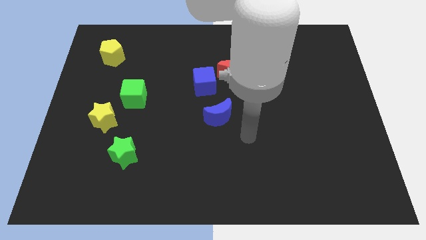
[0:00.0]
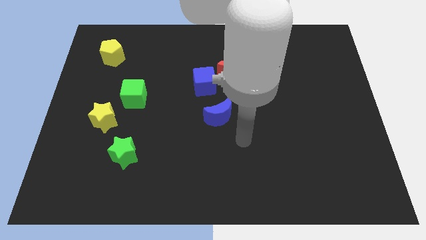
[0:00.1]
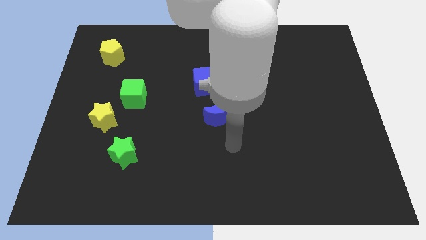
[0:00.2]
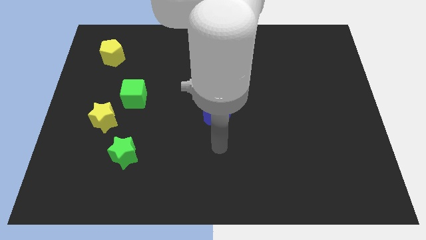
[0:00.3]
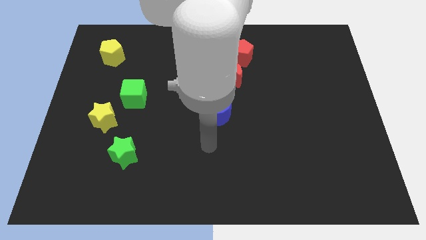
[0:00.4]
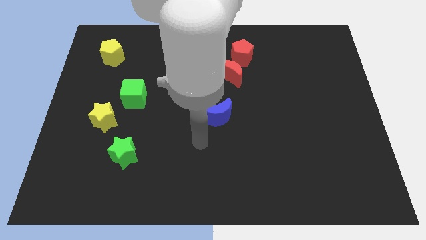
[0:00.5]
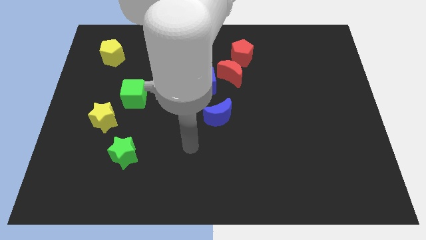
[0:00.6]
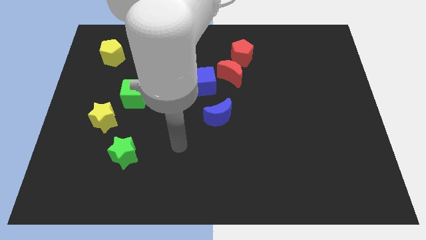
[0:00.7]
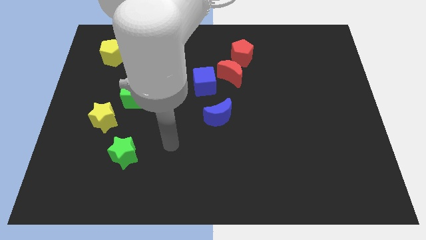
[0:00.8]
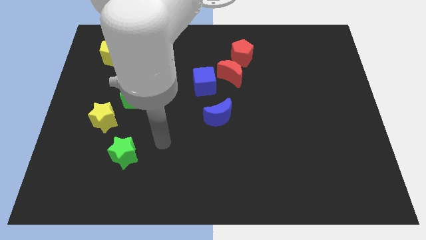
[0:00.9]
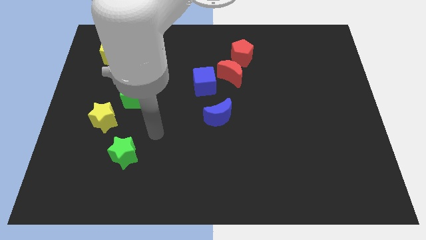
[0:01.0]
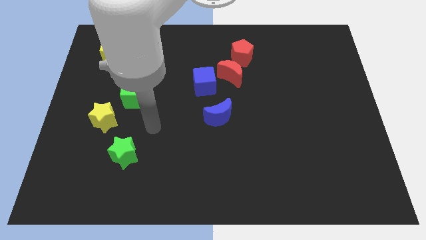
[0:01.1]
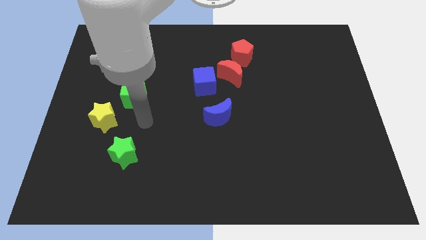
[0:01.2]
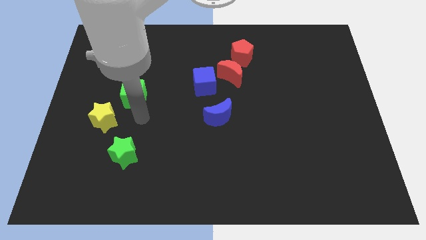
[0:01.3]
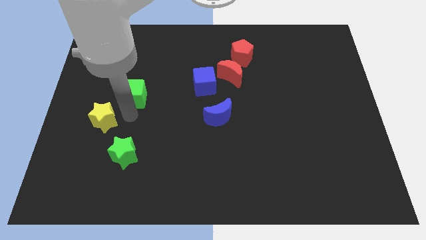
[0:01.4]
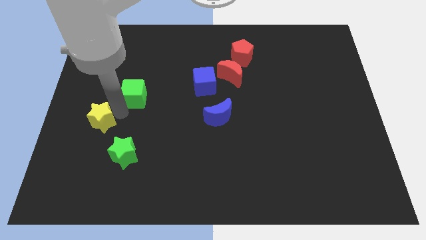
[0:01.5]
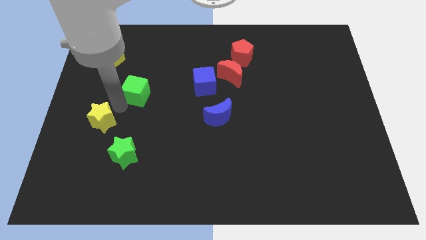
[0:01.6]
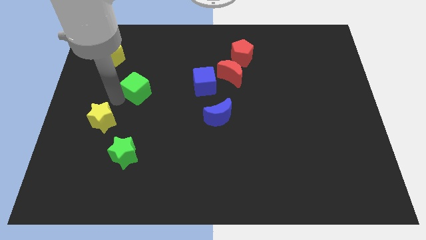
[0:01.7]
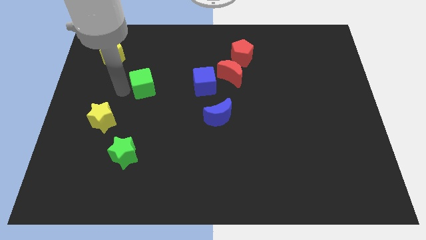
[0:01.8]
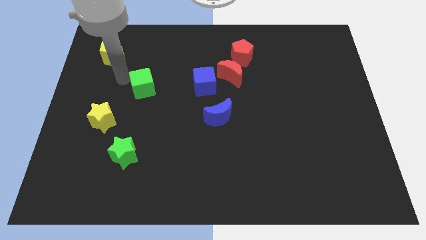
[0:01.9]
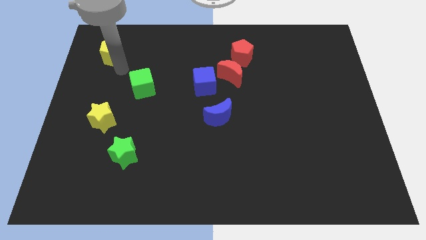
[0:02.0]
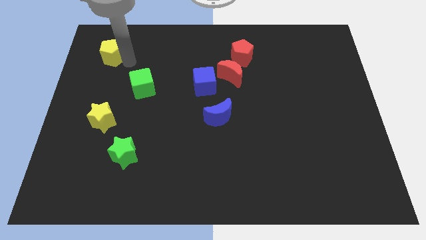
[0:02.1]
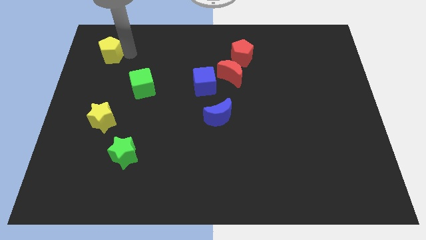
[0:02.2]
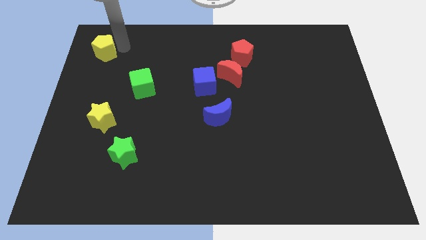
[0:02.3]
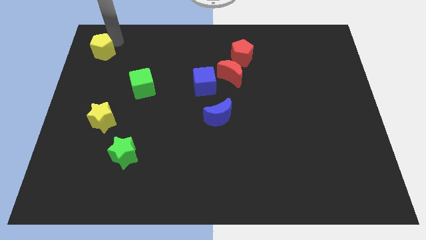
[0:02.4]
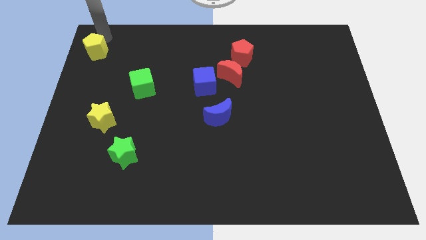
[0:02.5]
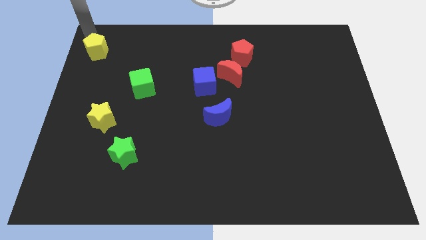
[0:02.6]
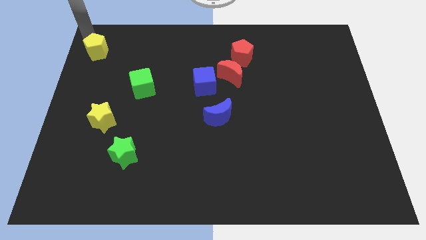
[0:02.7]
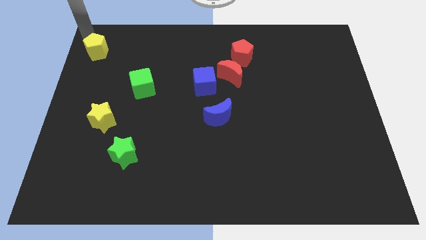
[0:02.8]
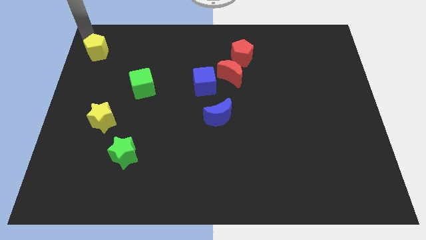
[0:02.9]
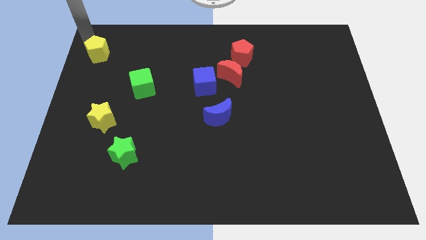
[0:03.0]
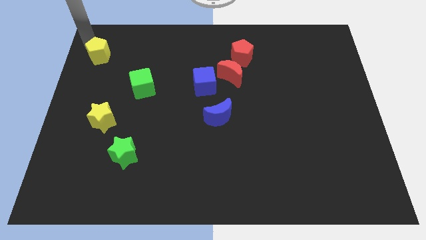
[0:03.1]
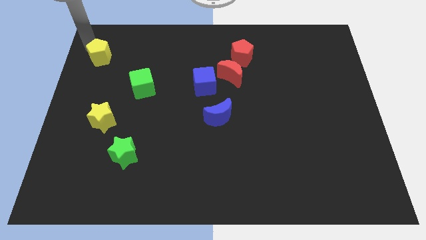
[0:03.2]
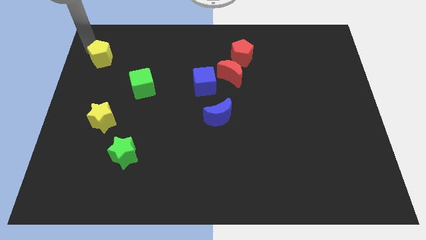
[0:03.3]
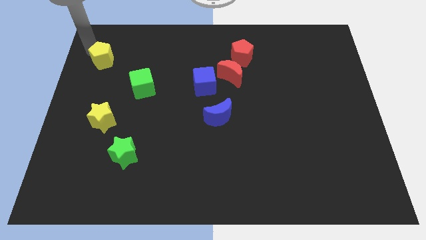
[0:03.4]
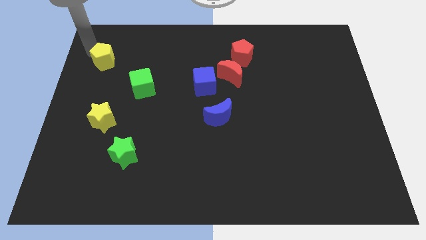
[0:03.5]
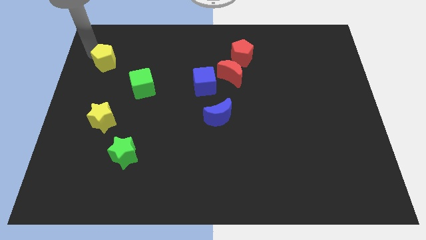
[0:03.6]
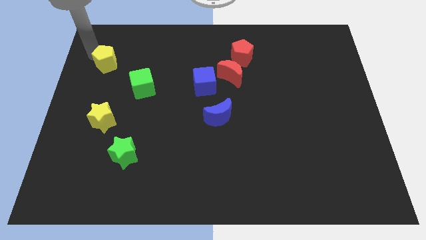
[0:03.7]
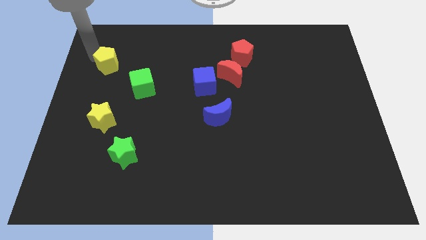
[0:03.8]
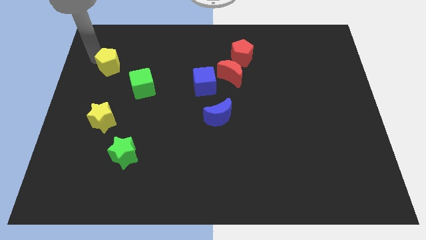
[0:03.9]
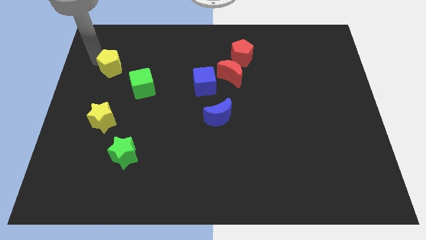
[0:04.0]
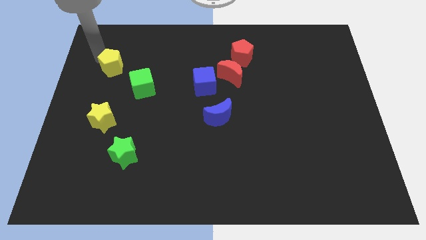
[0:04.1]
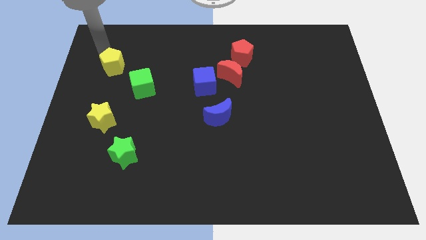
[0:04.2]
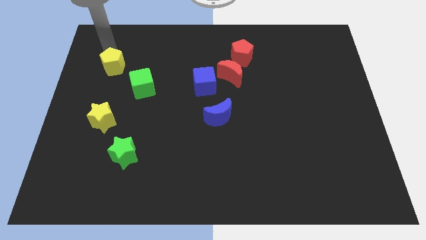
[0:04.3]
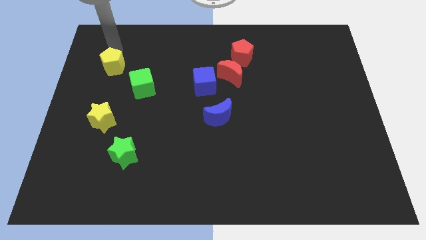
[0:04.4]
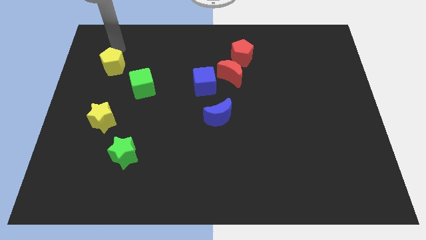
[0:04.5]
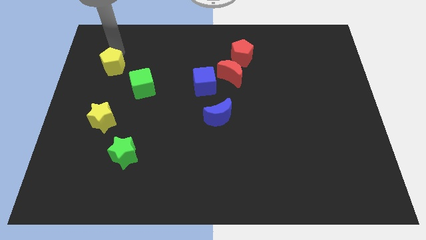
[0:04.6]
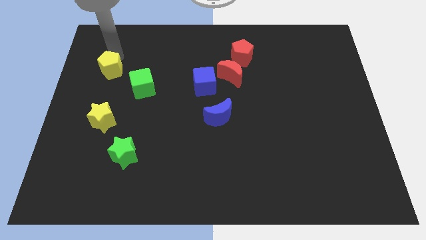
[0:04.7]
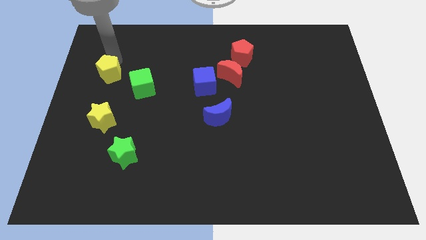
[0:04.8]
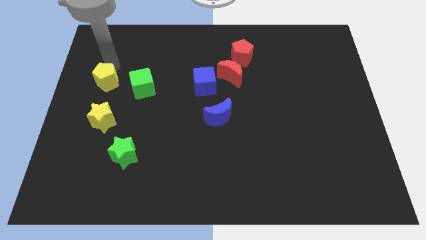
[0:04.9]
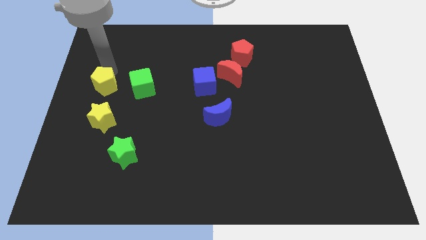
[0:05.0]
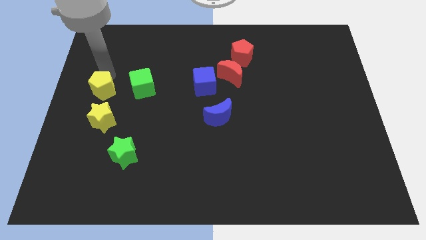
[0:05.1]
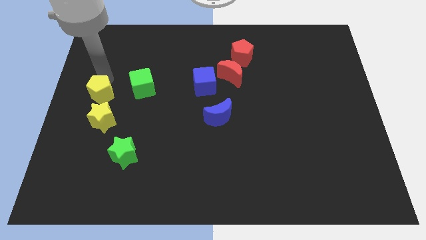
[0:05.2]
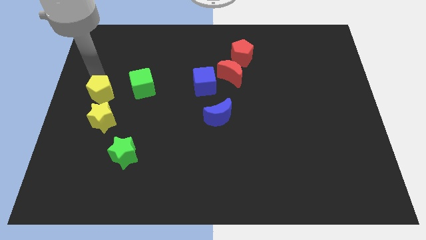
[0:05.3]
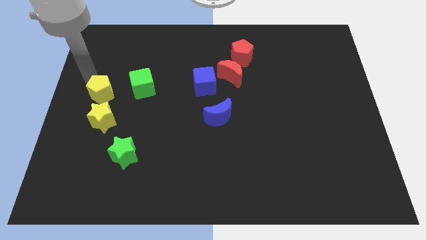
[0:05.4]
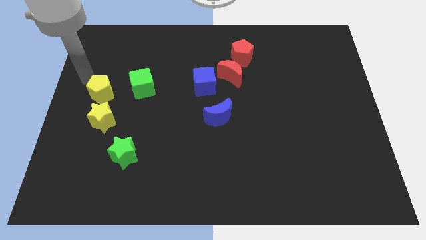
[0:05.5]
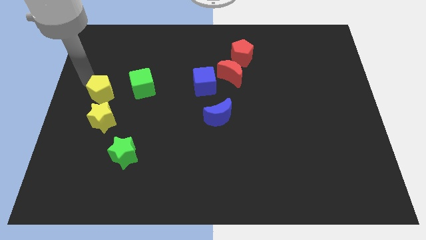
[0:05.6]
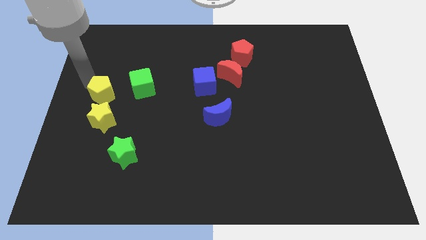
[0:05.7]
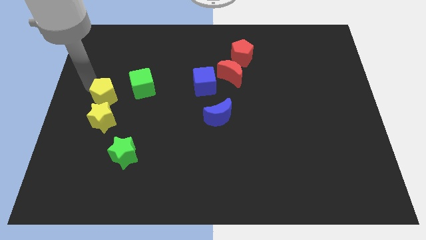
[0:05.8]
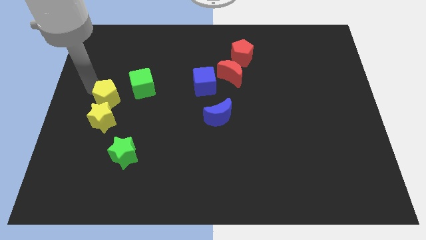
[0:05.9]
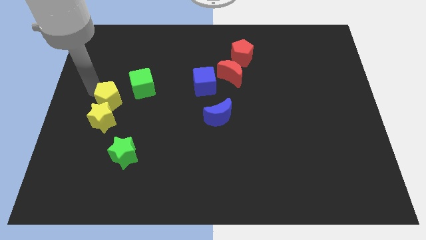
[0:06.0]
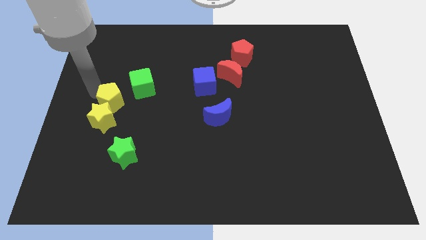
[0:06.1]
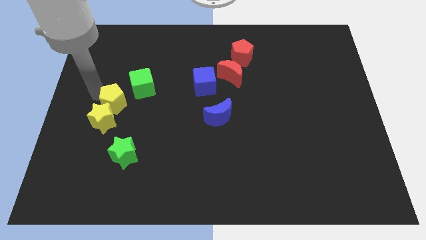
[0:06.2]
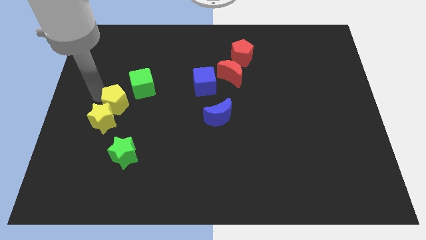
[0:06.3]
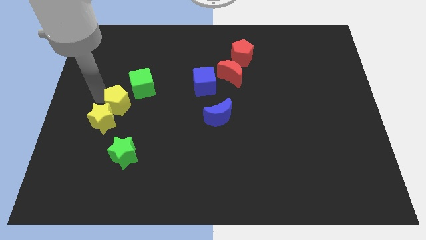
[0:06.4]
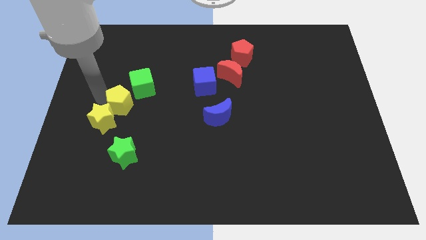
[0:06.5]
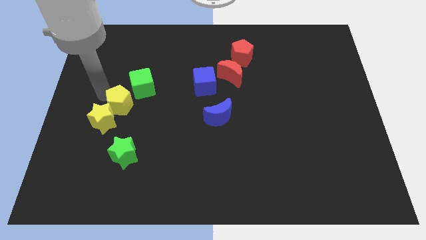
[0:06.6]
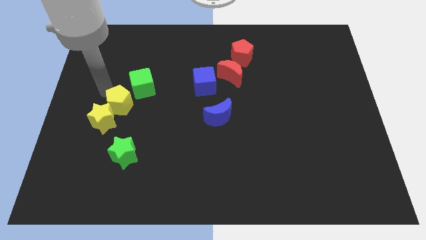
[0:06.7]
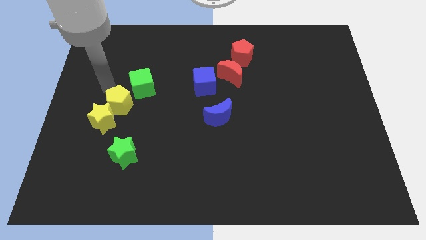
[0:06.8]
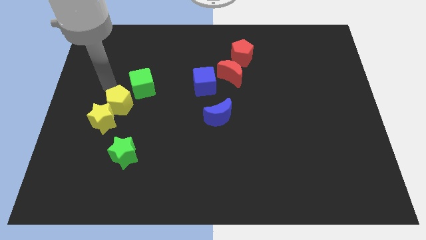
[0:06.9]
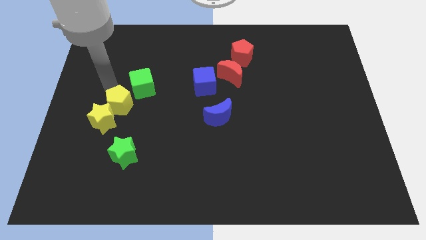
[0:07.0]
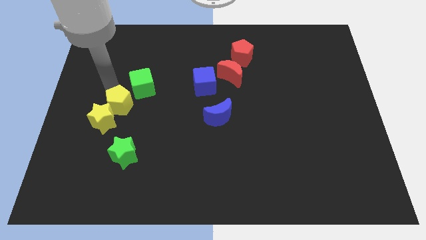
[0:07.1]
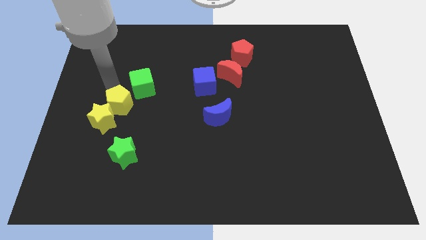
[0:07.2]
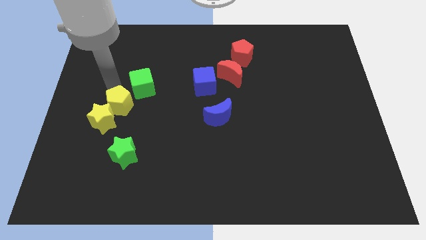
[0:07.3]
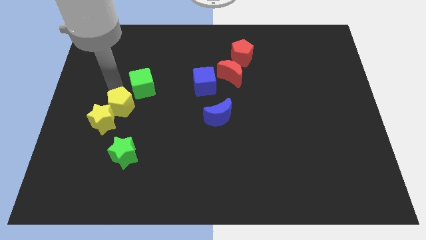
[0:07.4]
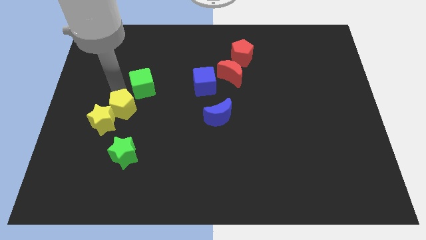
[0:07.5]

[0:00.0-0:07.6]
push the yellow pentagon just right of the yellow star

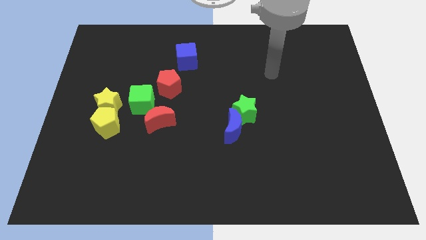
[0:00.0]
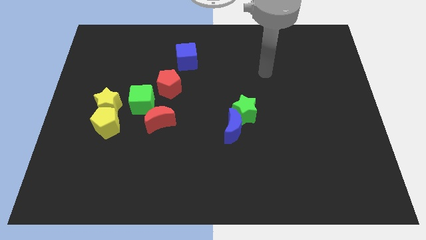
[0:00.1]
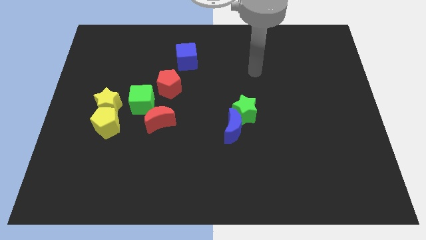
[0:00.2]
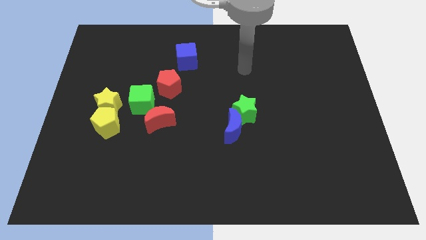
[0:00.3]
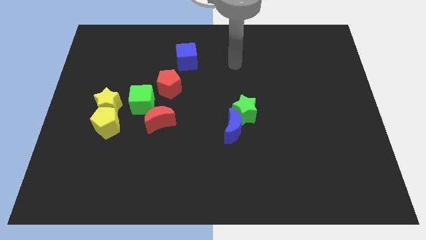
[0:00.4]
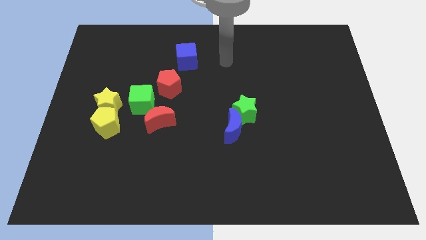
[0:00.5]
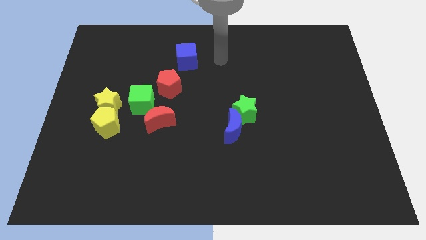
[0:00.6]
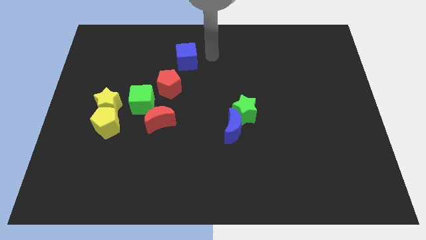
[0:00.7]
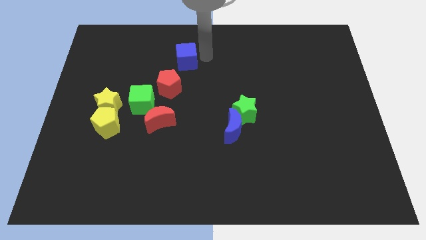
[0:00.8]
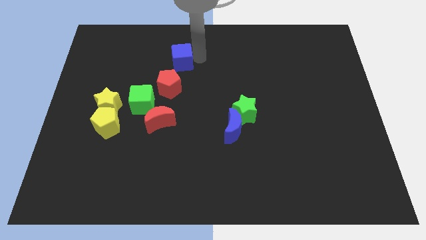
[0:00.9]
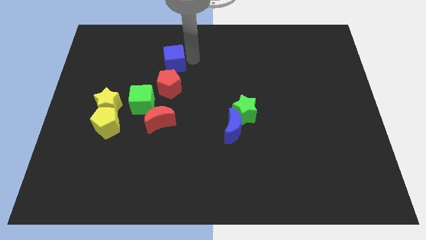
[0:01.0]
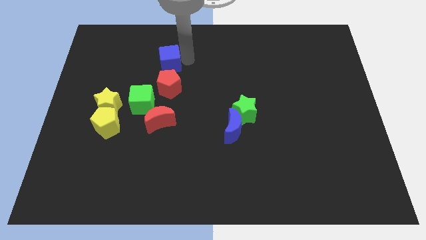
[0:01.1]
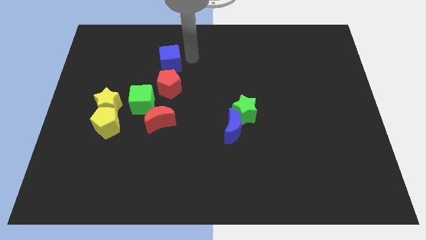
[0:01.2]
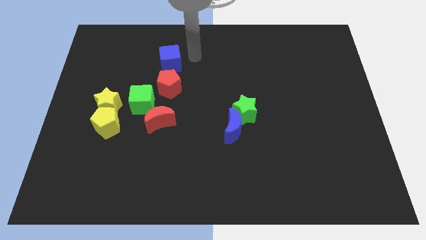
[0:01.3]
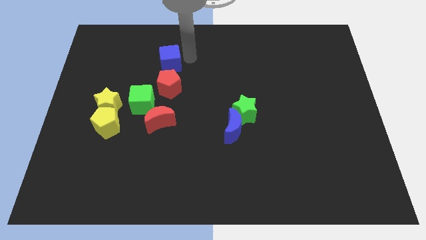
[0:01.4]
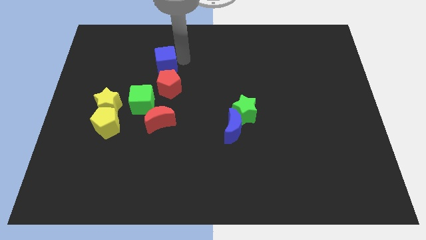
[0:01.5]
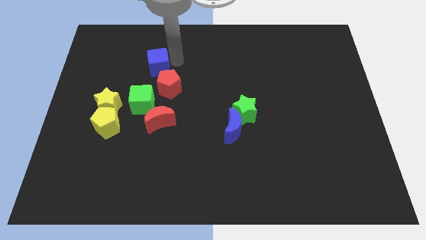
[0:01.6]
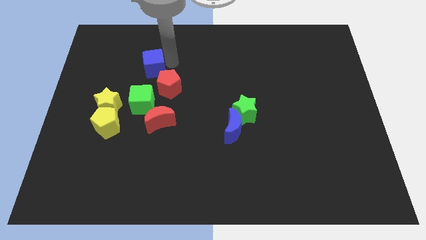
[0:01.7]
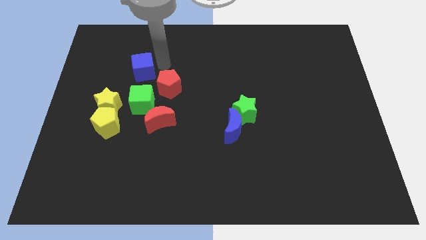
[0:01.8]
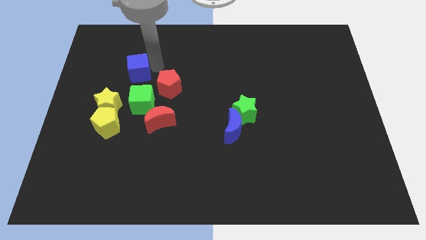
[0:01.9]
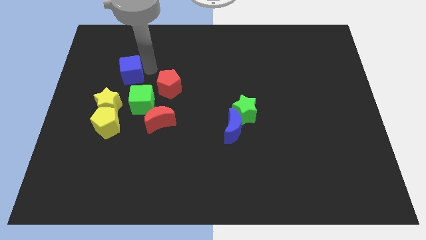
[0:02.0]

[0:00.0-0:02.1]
push the blue cube to the top side of the yellow star
